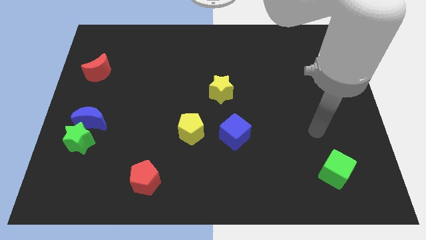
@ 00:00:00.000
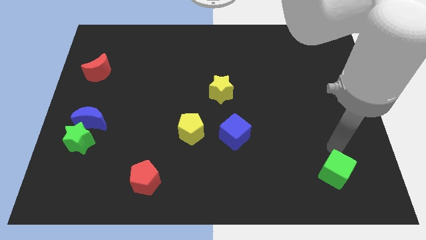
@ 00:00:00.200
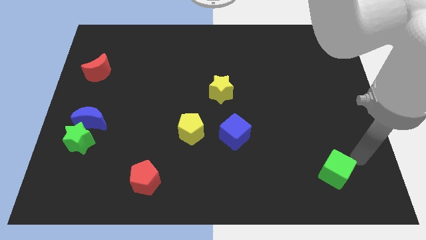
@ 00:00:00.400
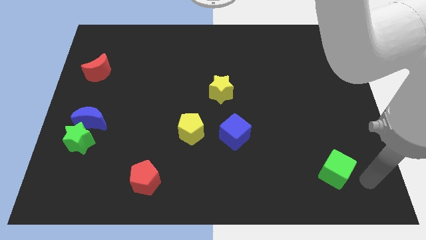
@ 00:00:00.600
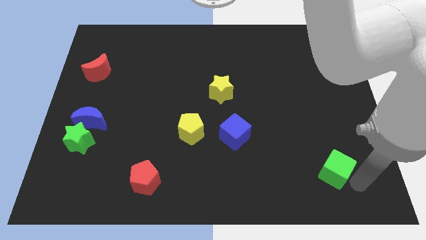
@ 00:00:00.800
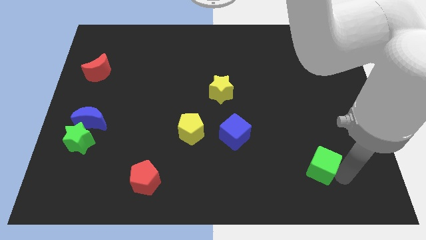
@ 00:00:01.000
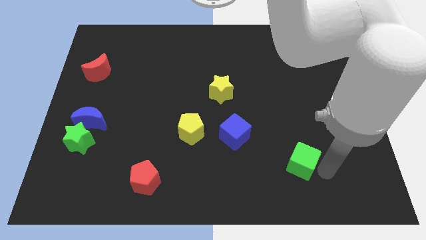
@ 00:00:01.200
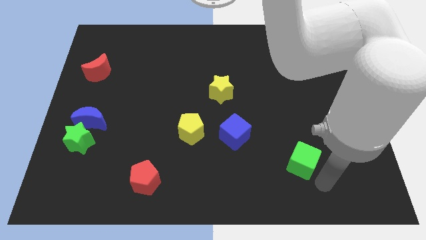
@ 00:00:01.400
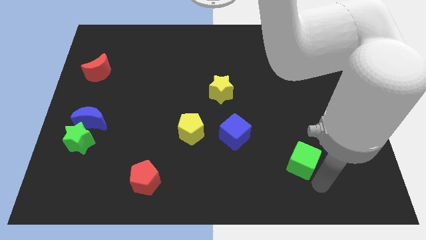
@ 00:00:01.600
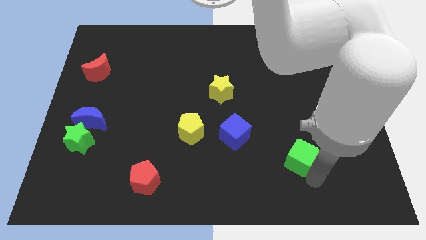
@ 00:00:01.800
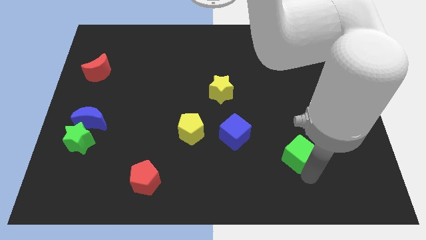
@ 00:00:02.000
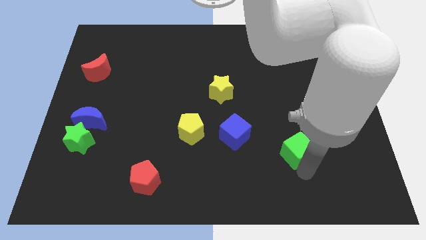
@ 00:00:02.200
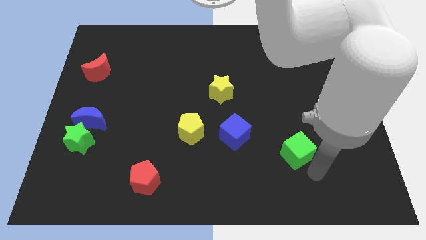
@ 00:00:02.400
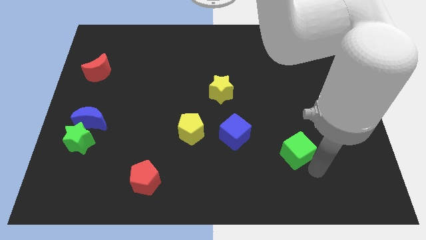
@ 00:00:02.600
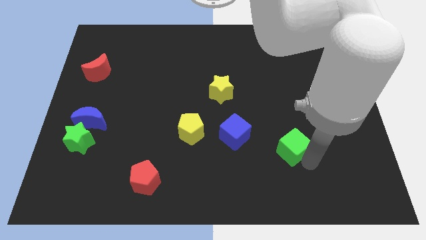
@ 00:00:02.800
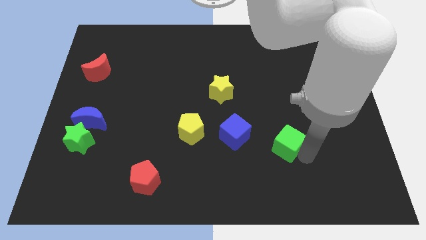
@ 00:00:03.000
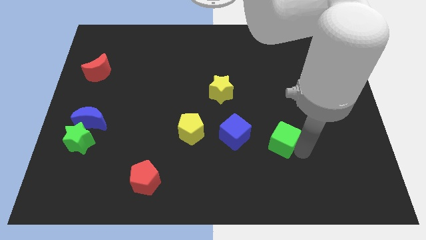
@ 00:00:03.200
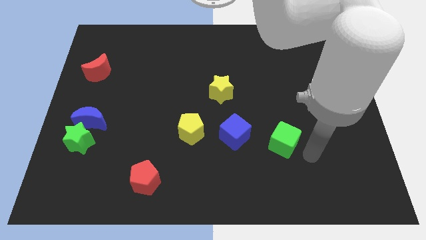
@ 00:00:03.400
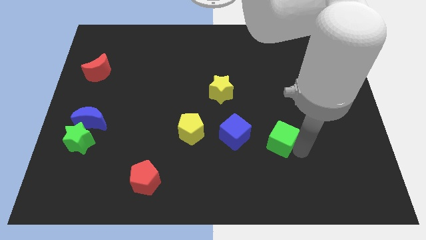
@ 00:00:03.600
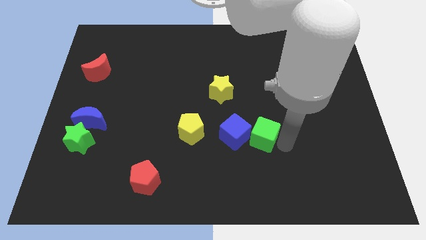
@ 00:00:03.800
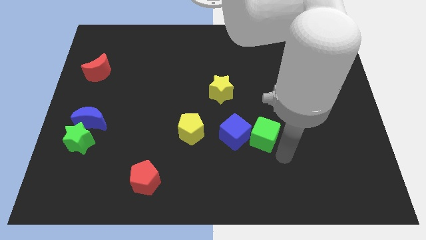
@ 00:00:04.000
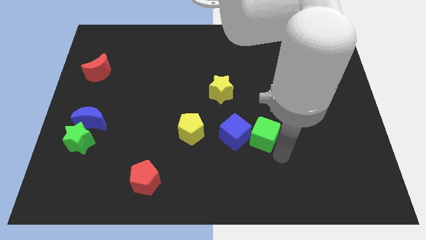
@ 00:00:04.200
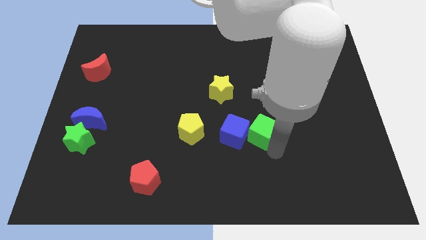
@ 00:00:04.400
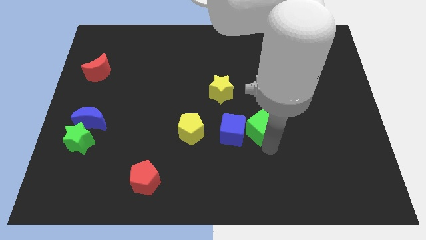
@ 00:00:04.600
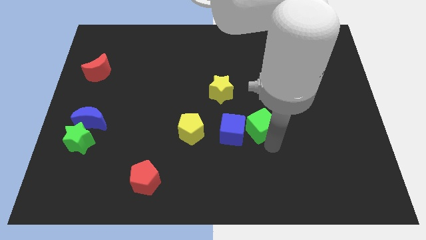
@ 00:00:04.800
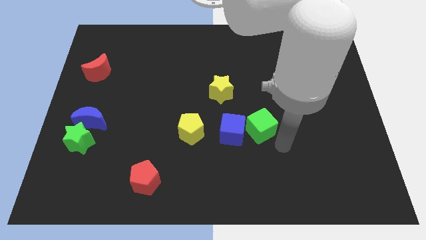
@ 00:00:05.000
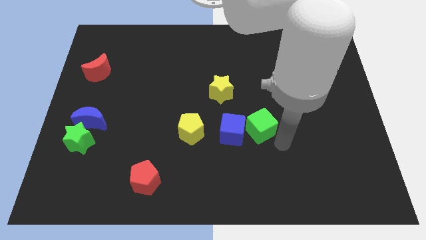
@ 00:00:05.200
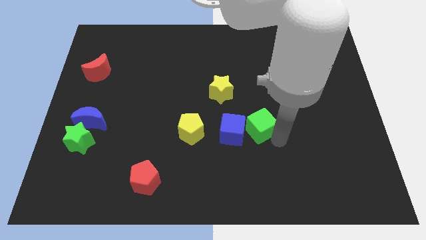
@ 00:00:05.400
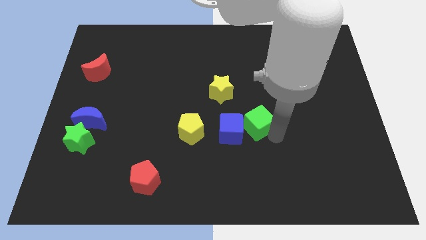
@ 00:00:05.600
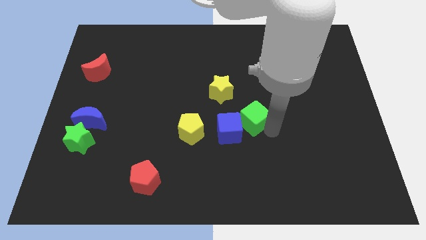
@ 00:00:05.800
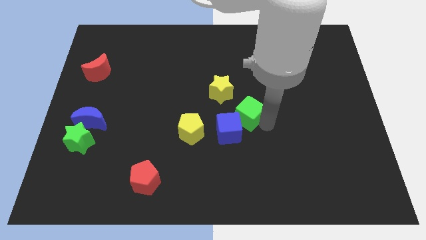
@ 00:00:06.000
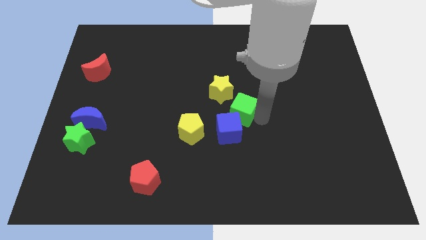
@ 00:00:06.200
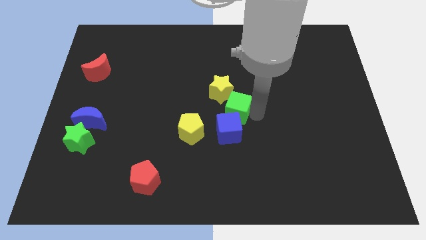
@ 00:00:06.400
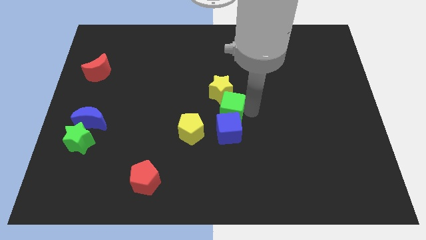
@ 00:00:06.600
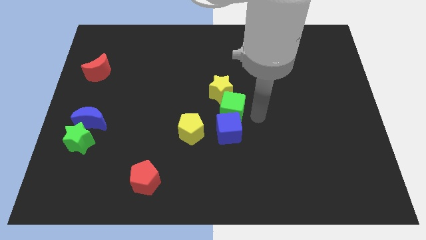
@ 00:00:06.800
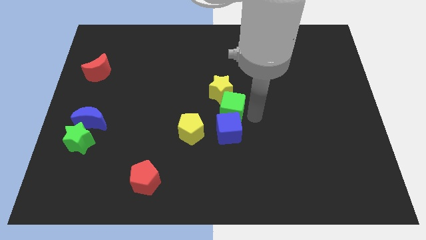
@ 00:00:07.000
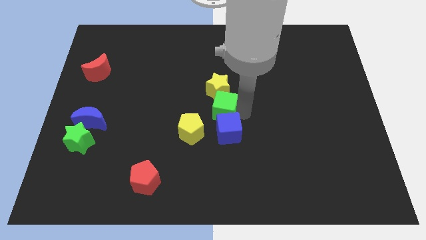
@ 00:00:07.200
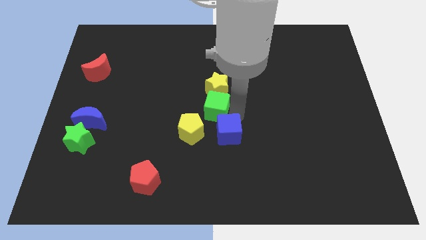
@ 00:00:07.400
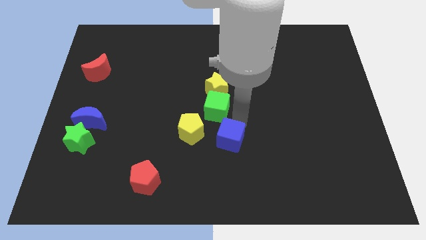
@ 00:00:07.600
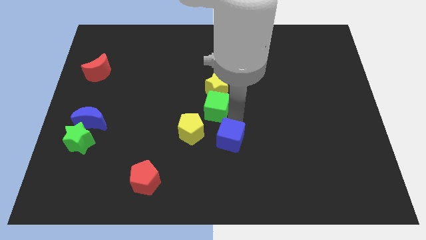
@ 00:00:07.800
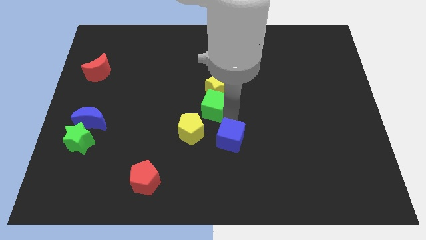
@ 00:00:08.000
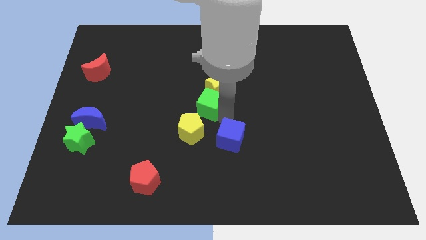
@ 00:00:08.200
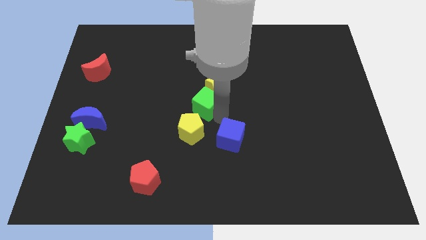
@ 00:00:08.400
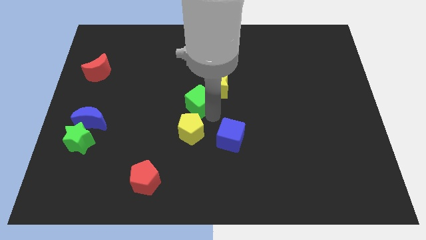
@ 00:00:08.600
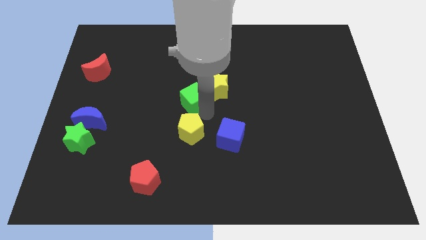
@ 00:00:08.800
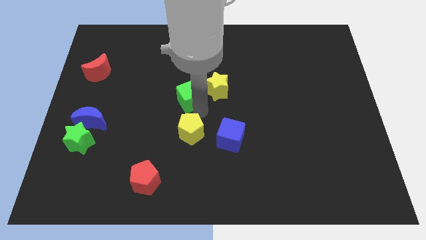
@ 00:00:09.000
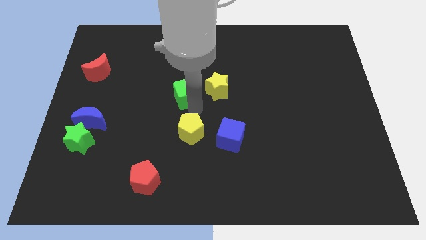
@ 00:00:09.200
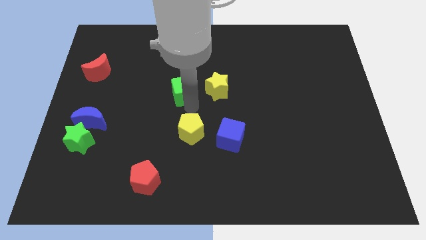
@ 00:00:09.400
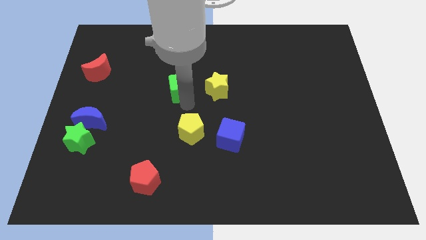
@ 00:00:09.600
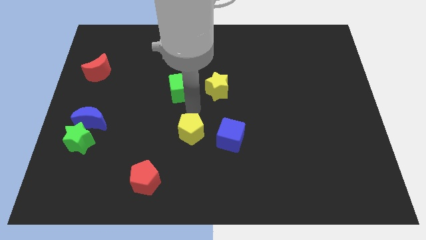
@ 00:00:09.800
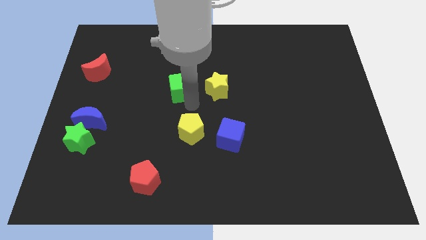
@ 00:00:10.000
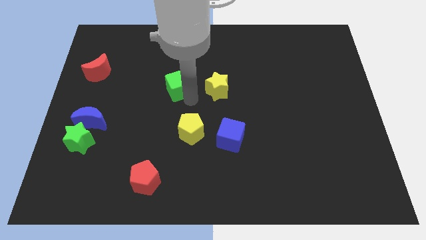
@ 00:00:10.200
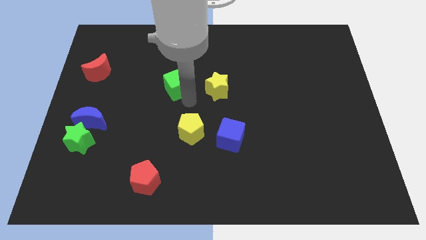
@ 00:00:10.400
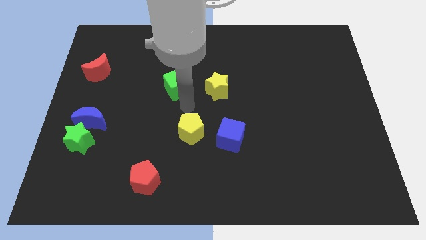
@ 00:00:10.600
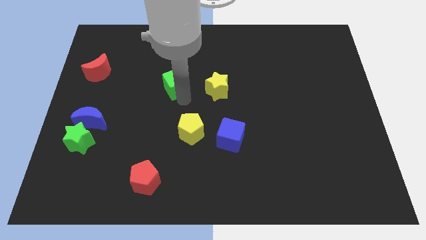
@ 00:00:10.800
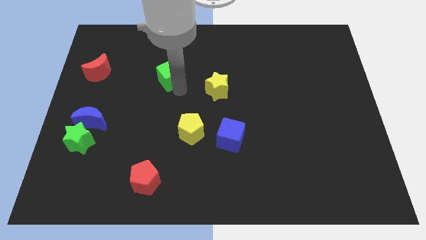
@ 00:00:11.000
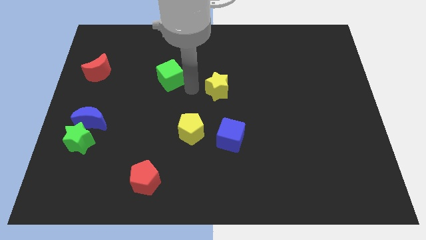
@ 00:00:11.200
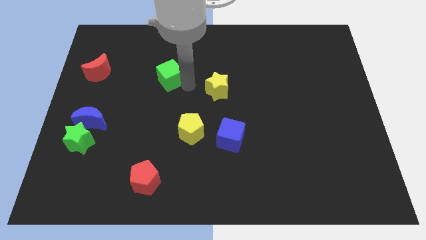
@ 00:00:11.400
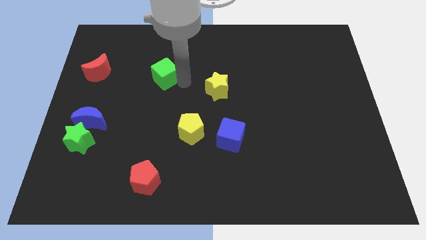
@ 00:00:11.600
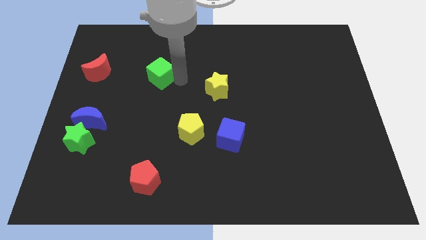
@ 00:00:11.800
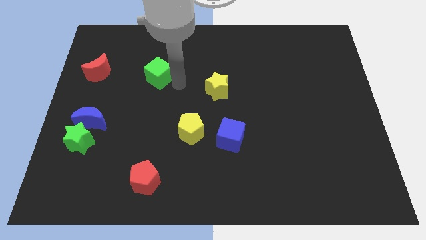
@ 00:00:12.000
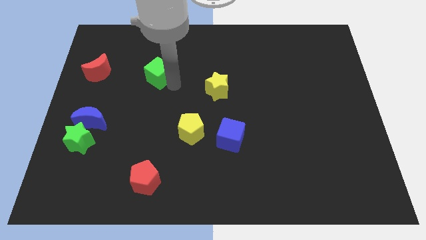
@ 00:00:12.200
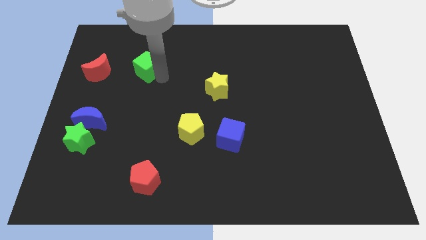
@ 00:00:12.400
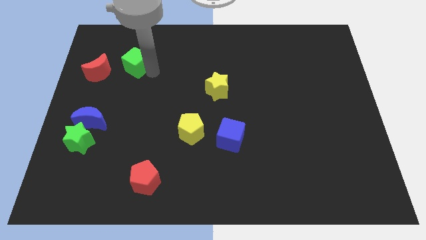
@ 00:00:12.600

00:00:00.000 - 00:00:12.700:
move the green cube diagonally up and to the right of the red moon

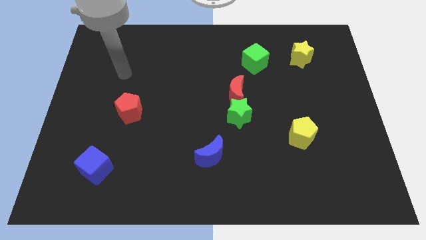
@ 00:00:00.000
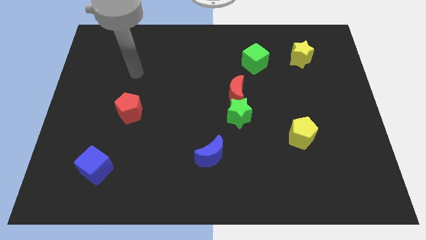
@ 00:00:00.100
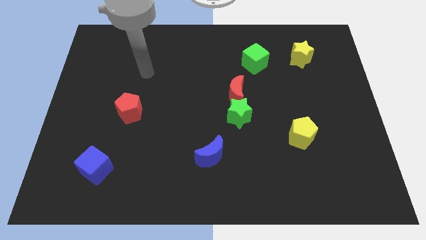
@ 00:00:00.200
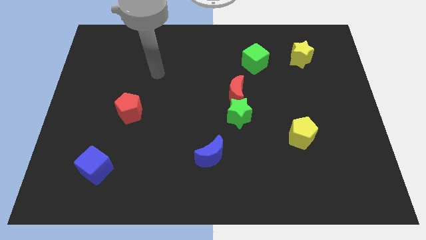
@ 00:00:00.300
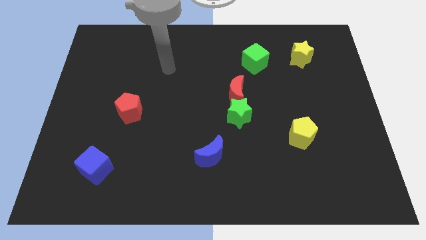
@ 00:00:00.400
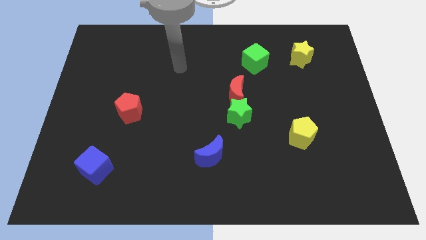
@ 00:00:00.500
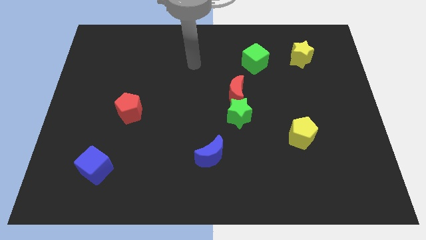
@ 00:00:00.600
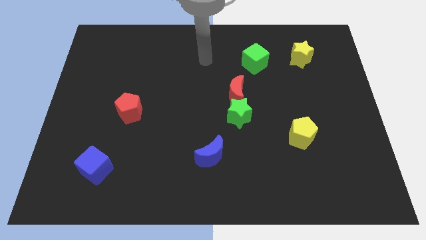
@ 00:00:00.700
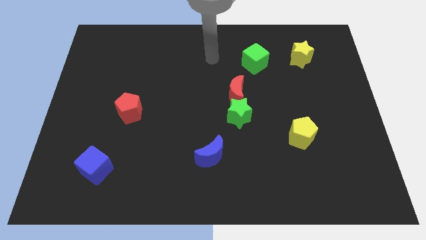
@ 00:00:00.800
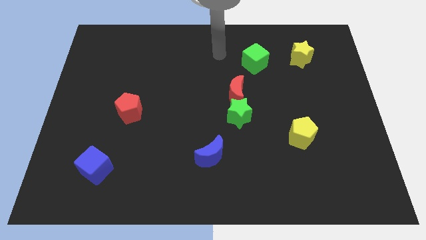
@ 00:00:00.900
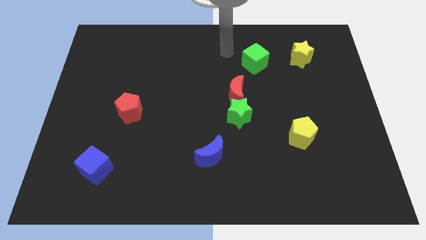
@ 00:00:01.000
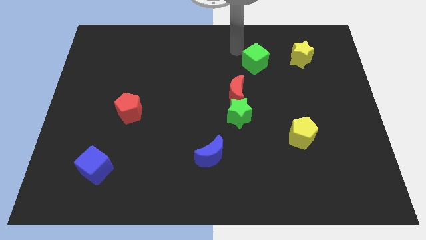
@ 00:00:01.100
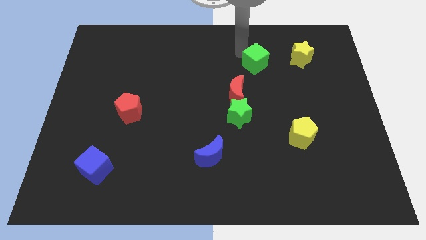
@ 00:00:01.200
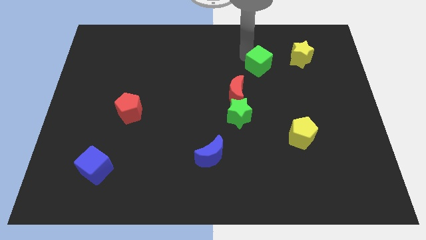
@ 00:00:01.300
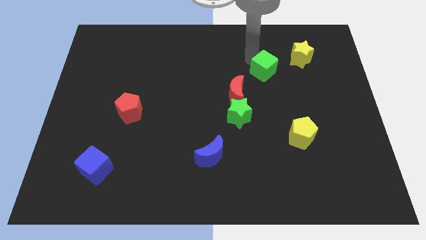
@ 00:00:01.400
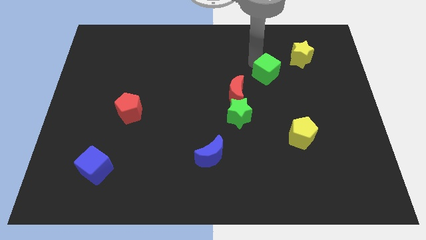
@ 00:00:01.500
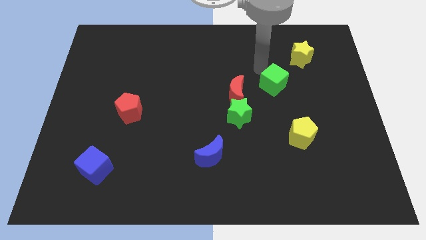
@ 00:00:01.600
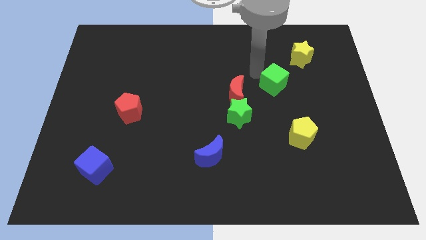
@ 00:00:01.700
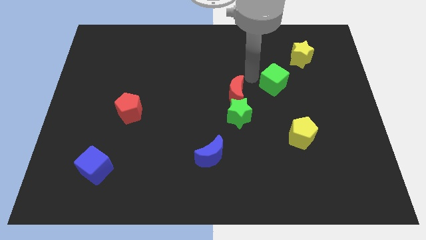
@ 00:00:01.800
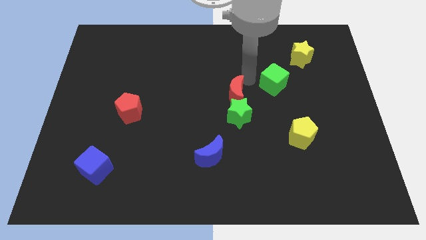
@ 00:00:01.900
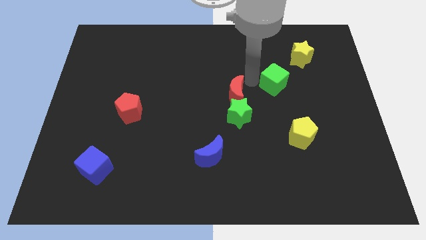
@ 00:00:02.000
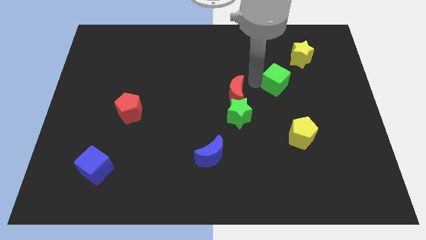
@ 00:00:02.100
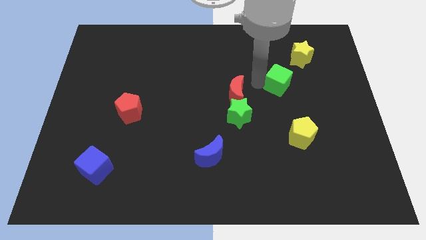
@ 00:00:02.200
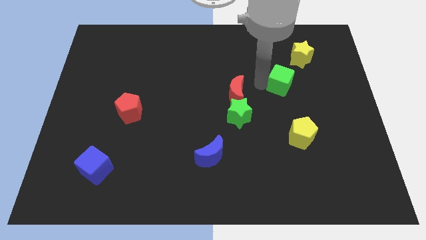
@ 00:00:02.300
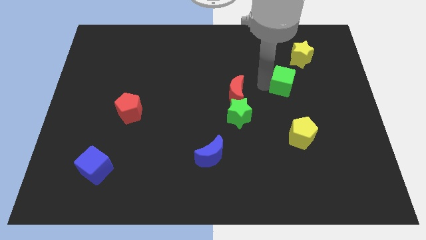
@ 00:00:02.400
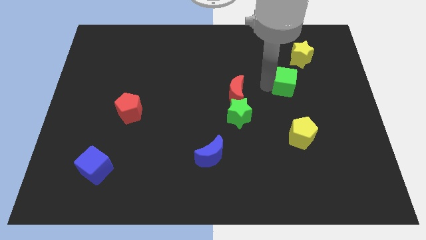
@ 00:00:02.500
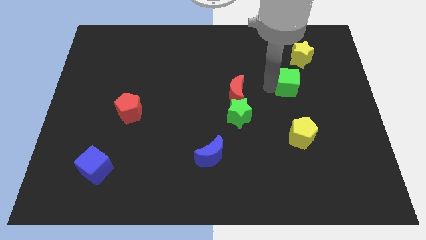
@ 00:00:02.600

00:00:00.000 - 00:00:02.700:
put the green cube to the bottom of the yellow star
